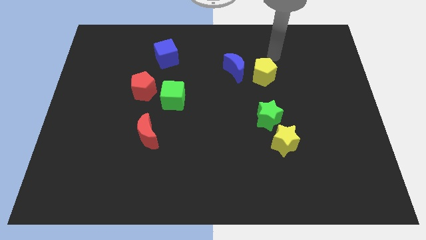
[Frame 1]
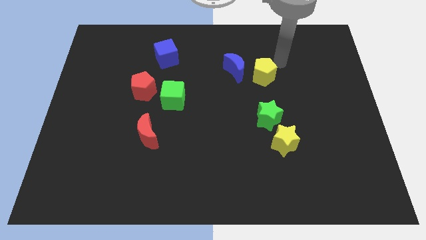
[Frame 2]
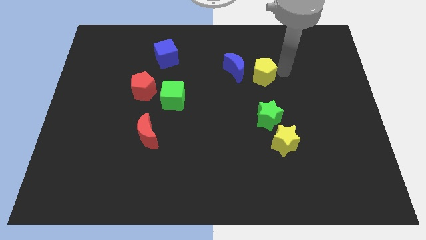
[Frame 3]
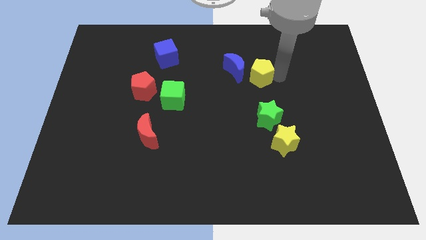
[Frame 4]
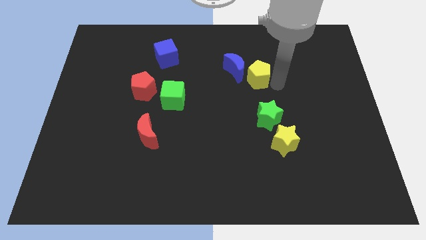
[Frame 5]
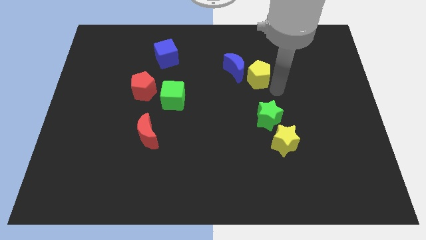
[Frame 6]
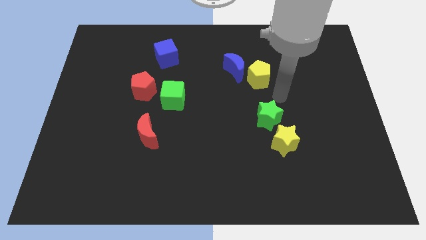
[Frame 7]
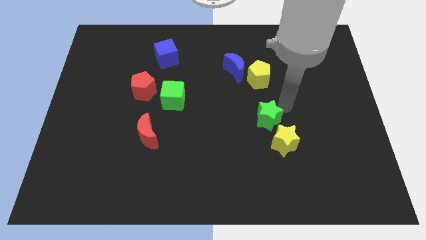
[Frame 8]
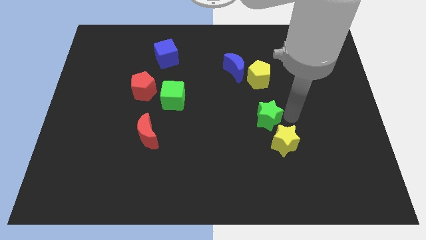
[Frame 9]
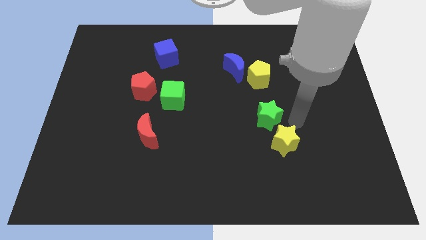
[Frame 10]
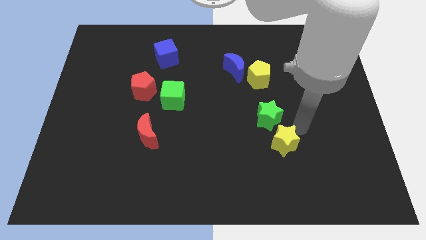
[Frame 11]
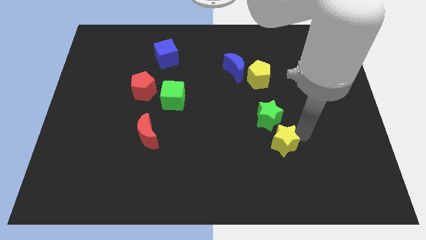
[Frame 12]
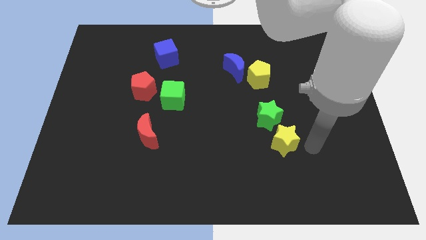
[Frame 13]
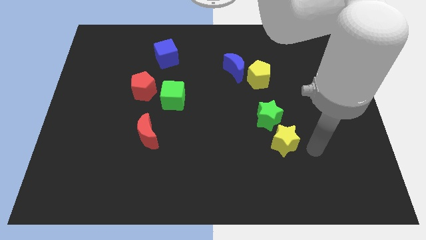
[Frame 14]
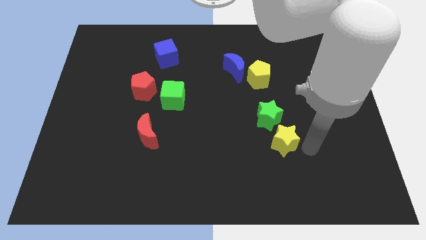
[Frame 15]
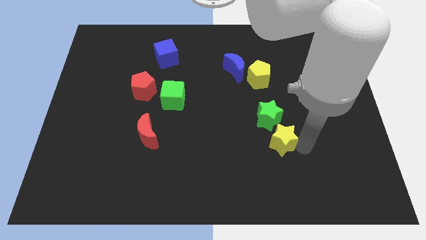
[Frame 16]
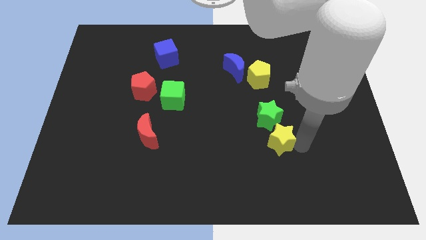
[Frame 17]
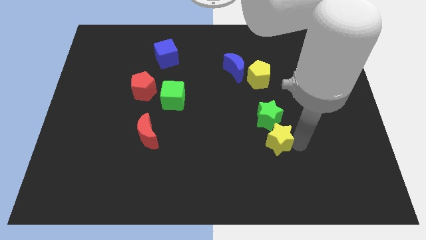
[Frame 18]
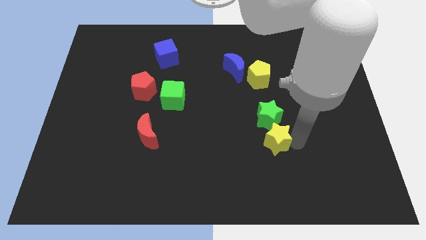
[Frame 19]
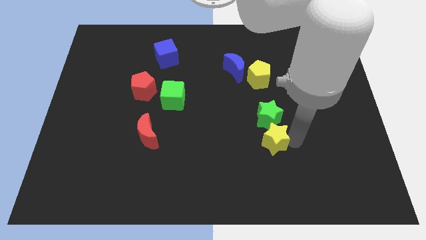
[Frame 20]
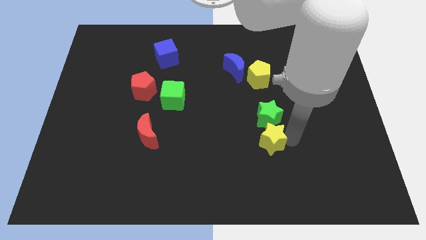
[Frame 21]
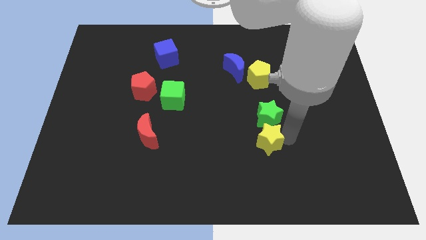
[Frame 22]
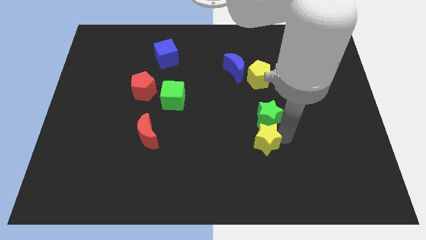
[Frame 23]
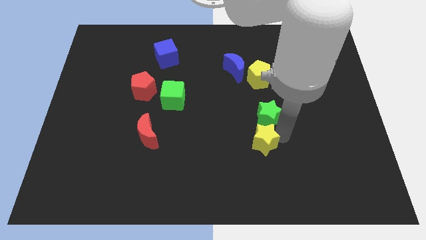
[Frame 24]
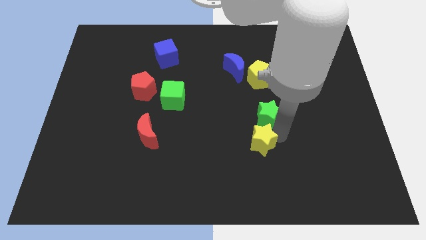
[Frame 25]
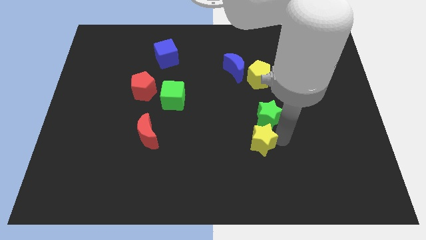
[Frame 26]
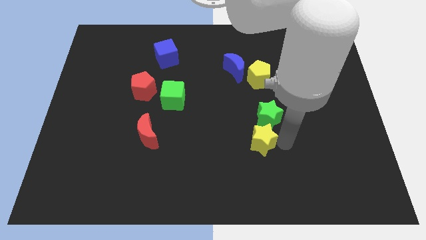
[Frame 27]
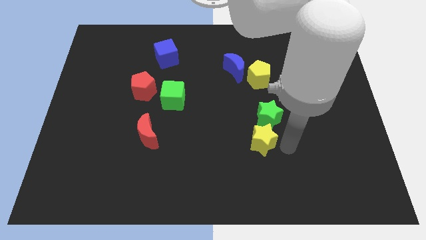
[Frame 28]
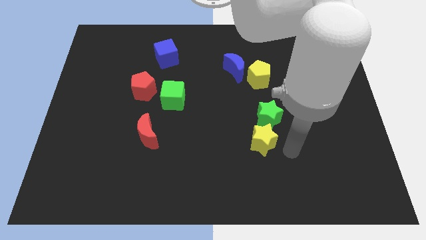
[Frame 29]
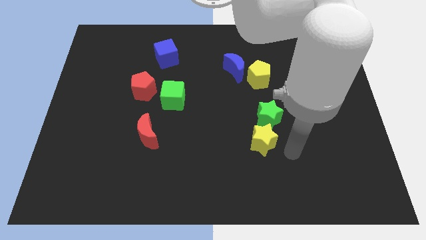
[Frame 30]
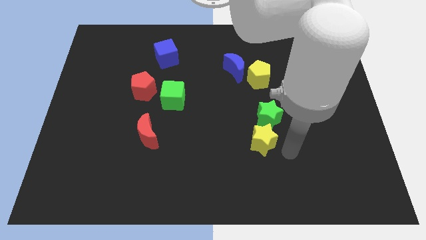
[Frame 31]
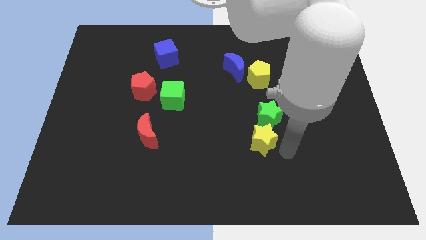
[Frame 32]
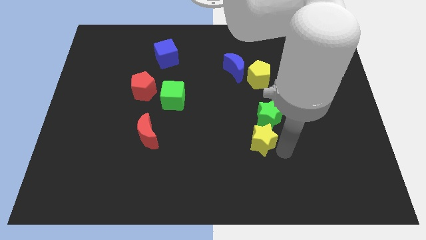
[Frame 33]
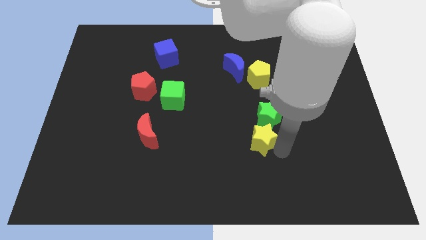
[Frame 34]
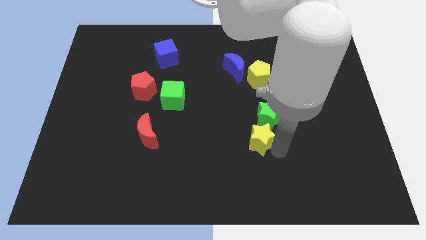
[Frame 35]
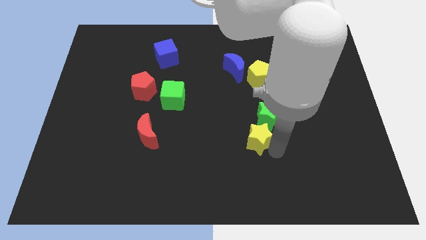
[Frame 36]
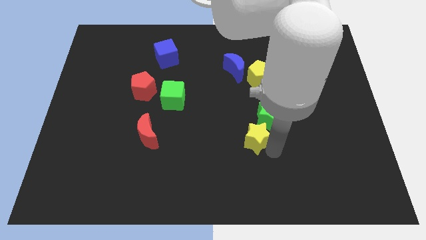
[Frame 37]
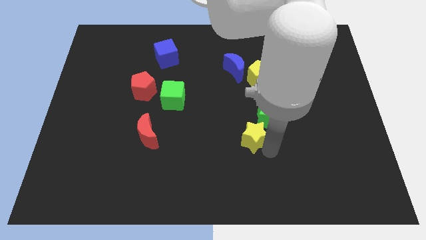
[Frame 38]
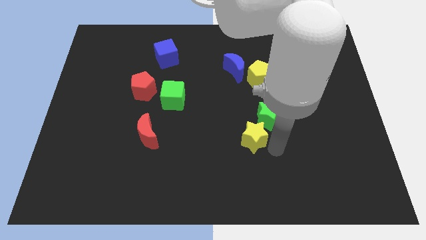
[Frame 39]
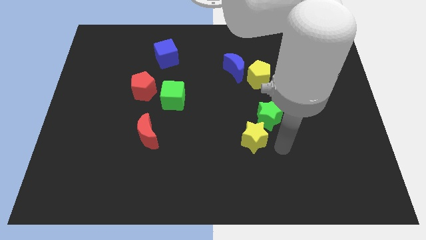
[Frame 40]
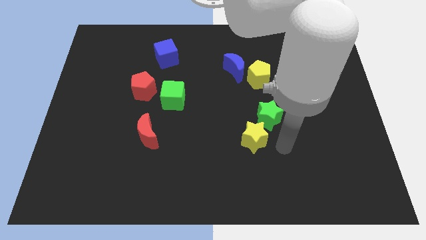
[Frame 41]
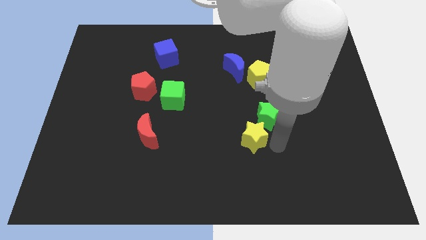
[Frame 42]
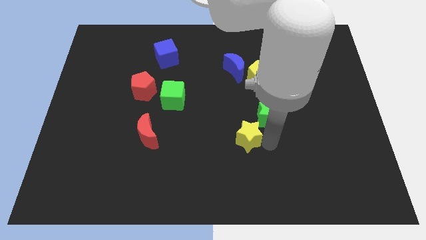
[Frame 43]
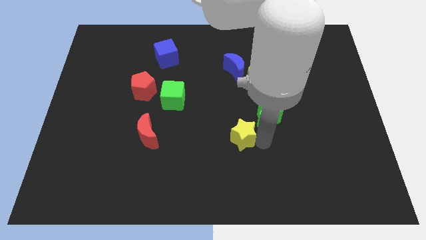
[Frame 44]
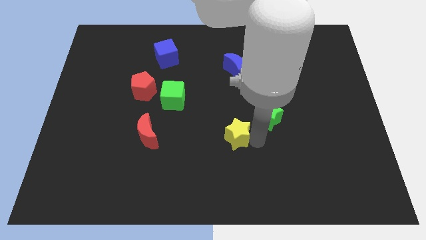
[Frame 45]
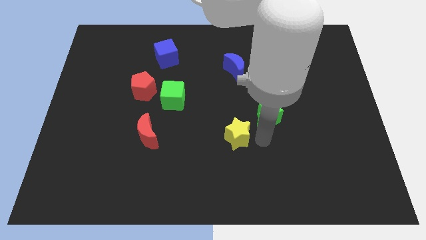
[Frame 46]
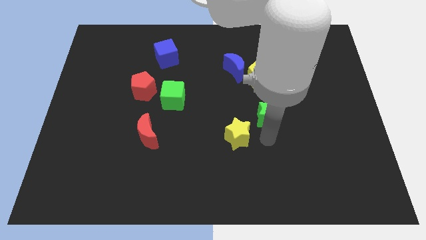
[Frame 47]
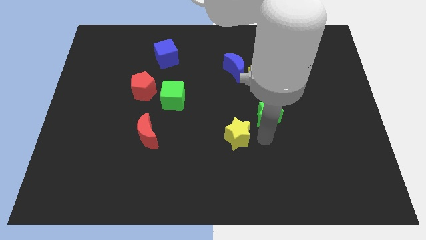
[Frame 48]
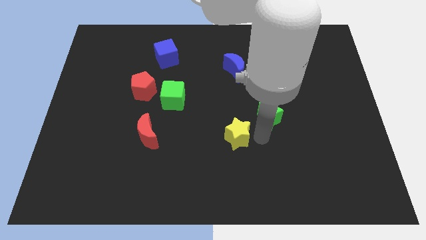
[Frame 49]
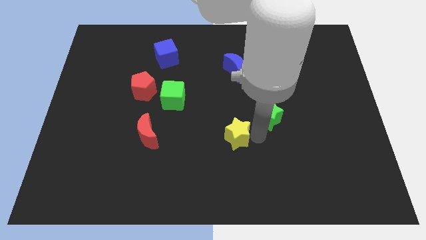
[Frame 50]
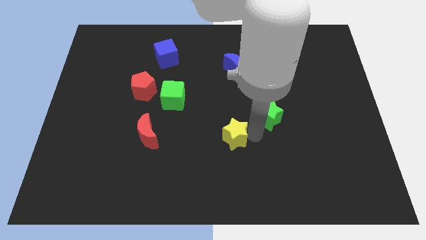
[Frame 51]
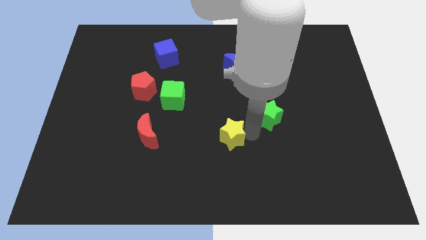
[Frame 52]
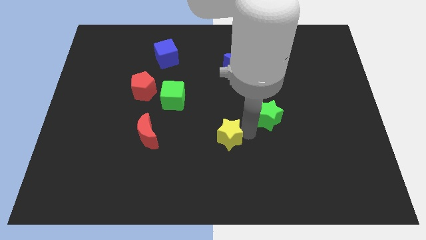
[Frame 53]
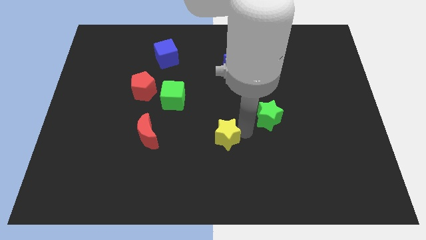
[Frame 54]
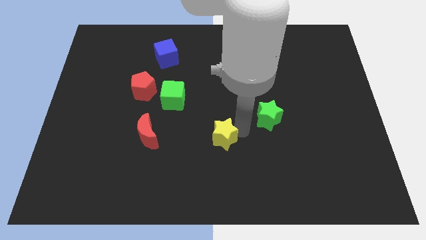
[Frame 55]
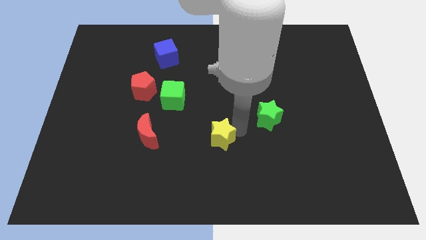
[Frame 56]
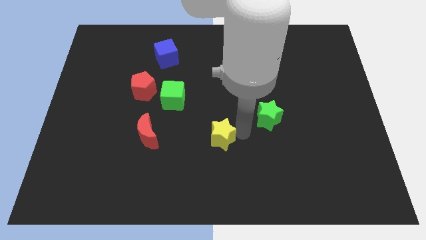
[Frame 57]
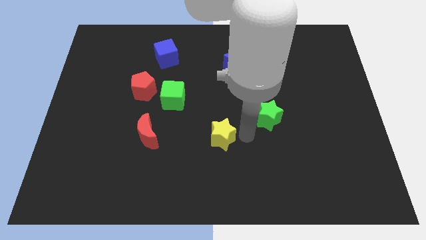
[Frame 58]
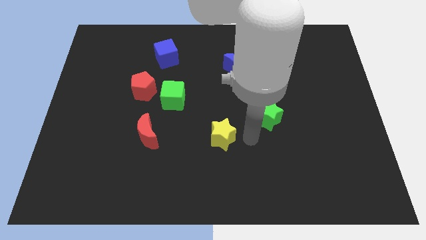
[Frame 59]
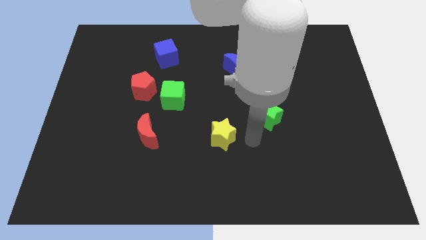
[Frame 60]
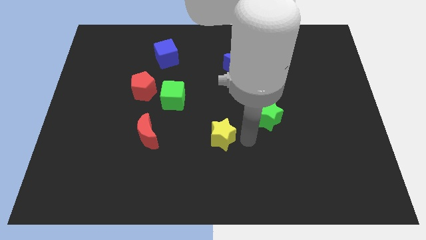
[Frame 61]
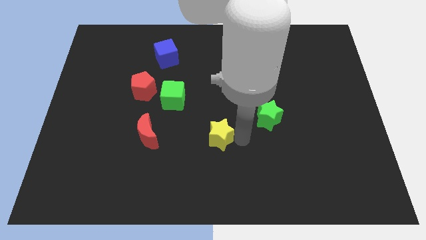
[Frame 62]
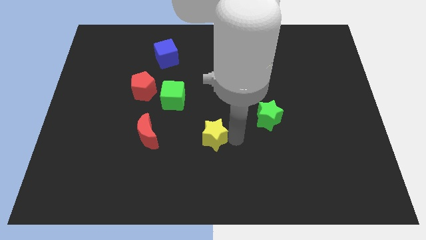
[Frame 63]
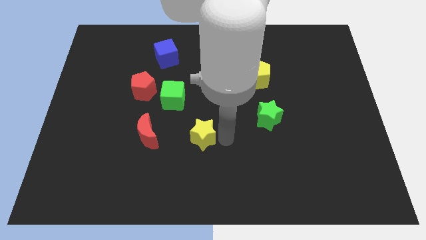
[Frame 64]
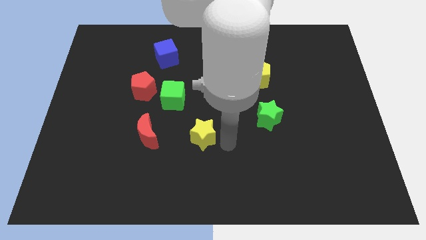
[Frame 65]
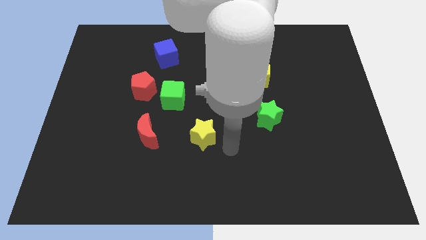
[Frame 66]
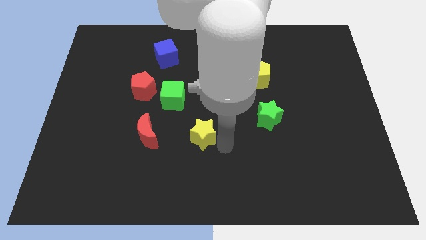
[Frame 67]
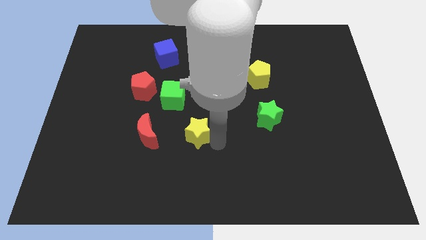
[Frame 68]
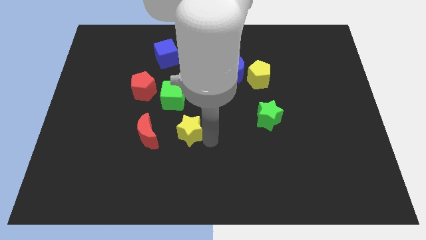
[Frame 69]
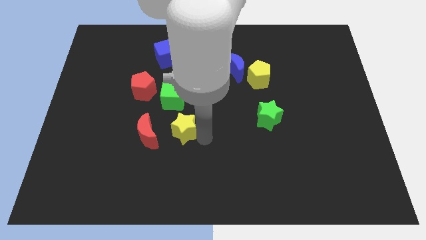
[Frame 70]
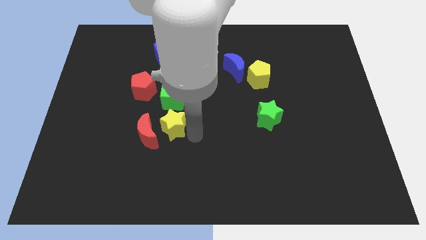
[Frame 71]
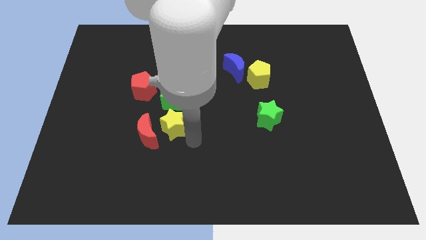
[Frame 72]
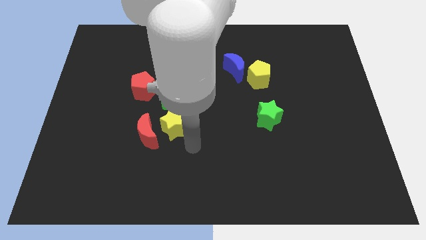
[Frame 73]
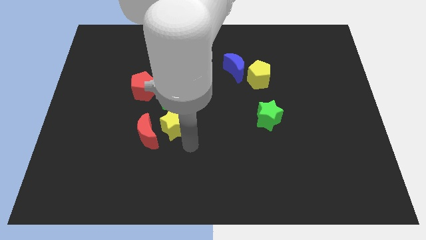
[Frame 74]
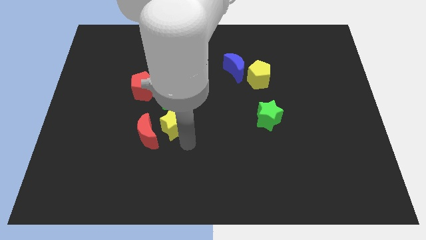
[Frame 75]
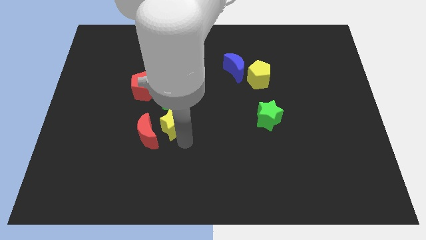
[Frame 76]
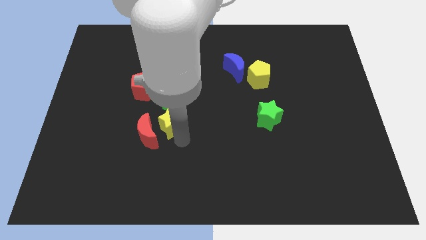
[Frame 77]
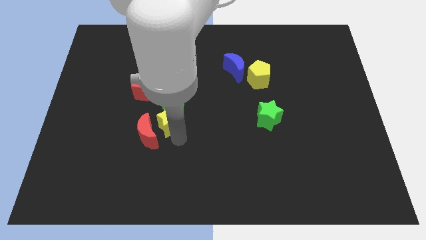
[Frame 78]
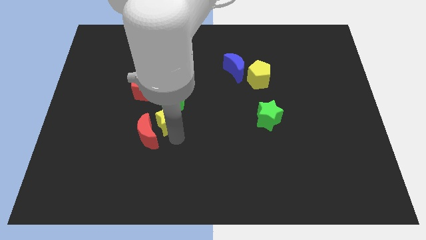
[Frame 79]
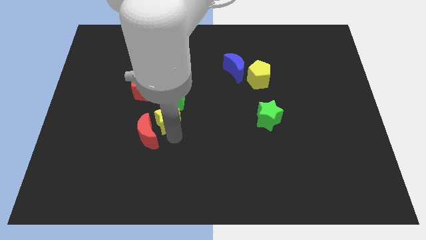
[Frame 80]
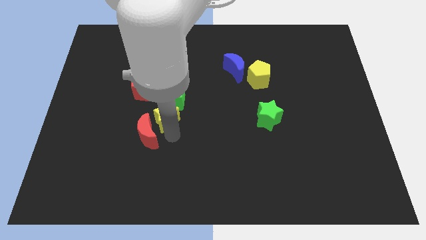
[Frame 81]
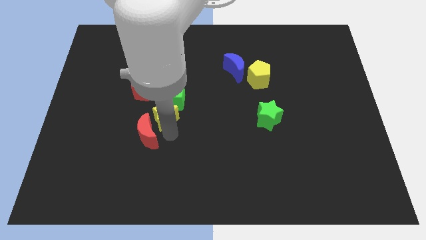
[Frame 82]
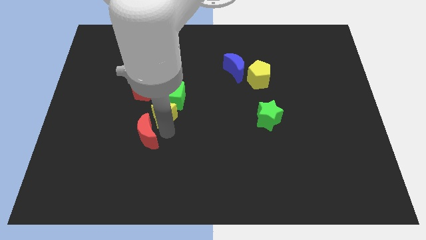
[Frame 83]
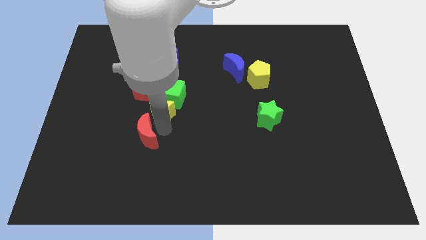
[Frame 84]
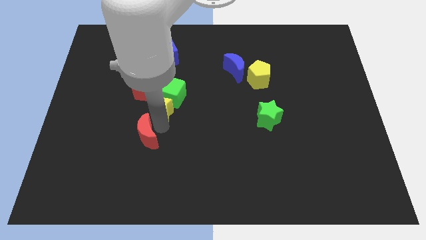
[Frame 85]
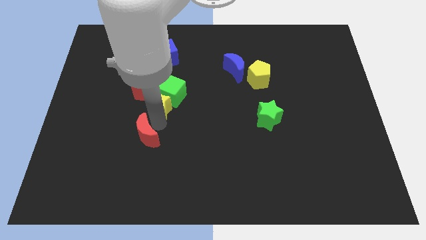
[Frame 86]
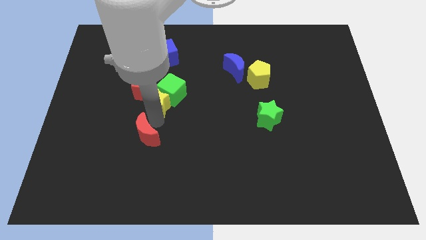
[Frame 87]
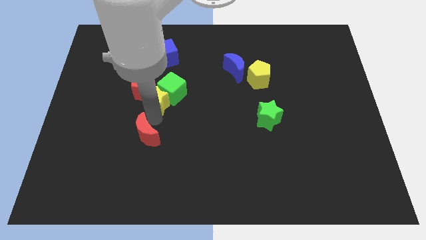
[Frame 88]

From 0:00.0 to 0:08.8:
push the yellow star to the red pentagon
